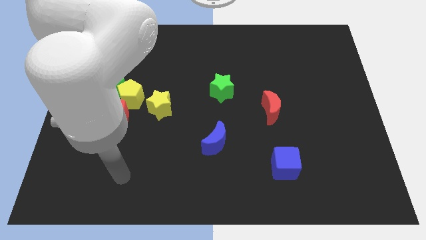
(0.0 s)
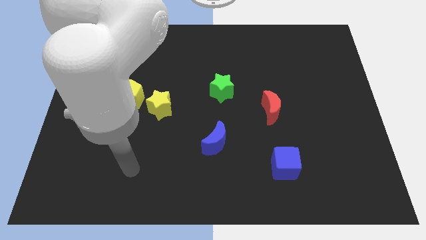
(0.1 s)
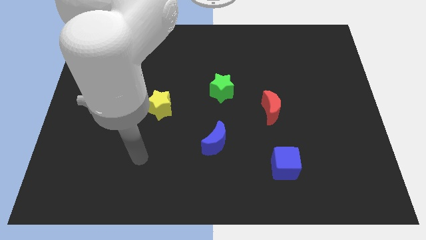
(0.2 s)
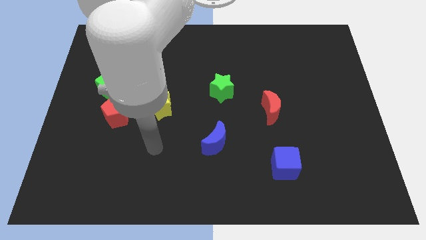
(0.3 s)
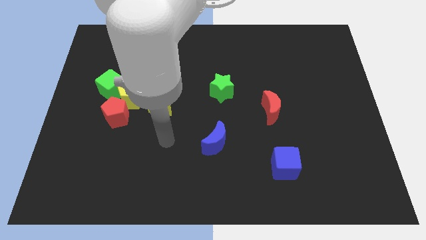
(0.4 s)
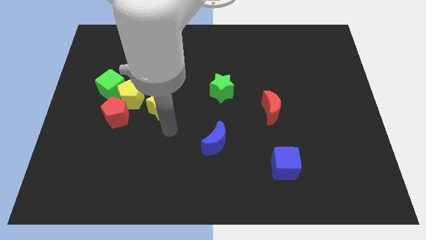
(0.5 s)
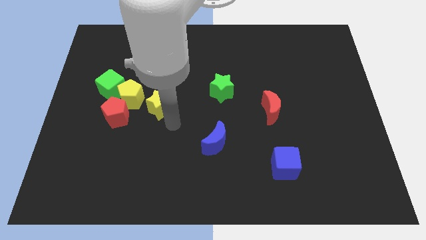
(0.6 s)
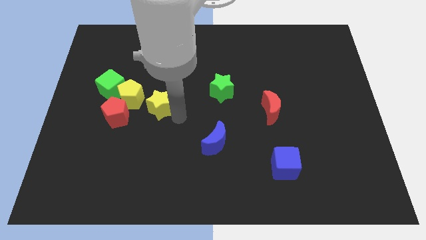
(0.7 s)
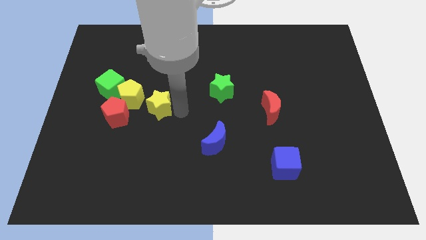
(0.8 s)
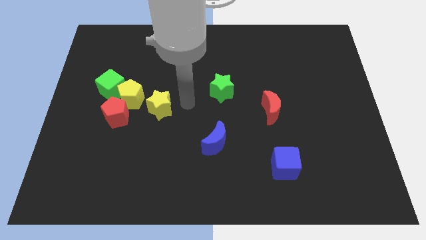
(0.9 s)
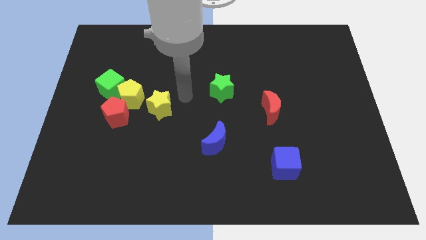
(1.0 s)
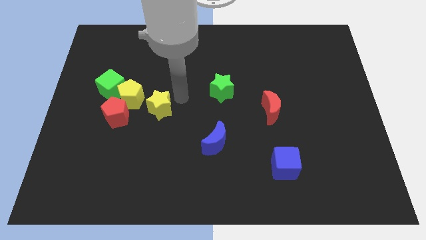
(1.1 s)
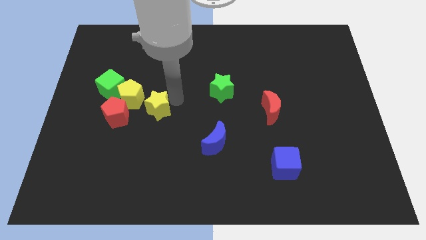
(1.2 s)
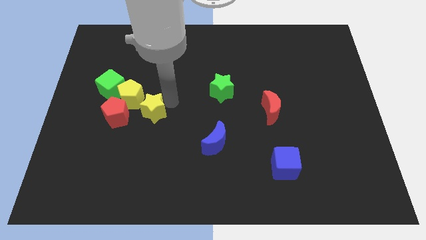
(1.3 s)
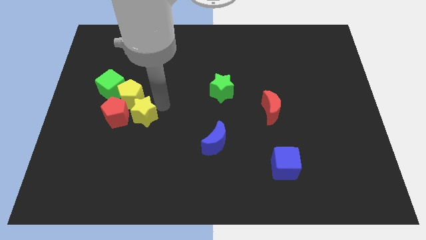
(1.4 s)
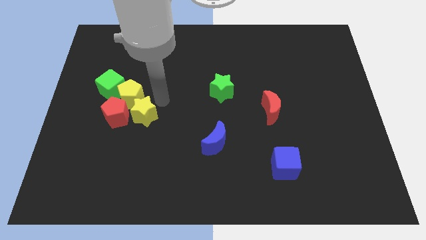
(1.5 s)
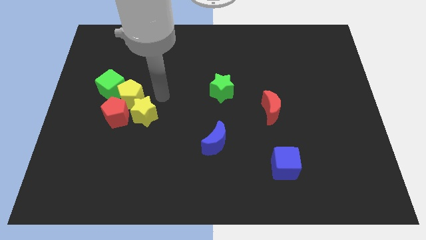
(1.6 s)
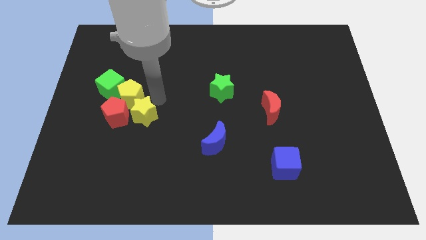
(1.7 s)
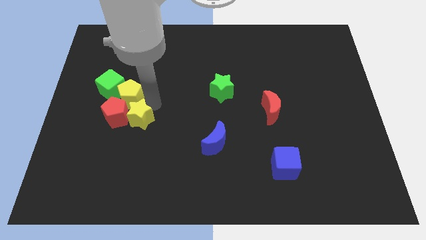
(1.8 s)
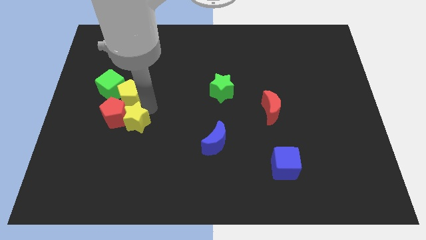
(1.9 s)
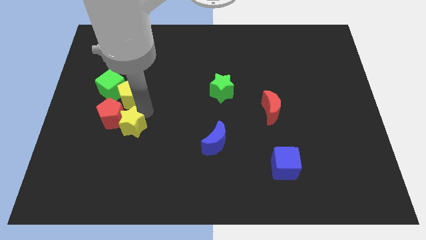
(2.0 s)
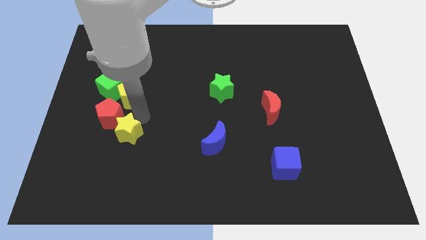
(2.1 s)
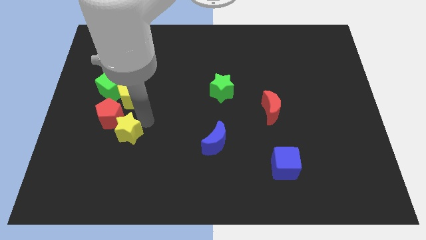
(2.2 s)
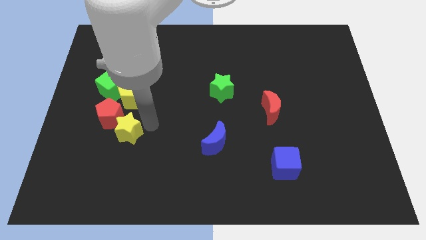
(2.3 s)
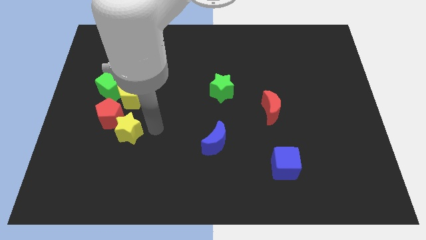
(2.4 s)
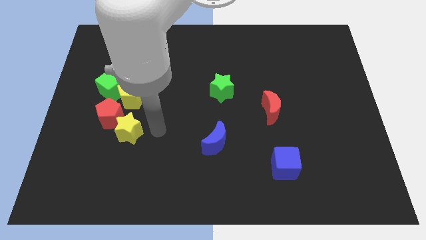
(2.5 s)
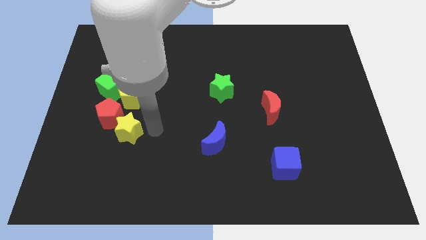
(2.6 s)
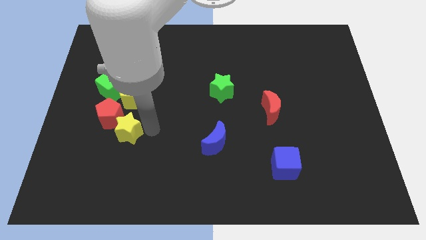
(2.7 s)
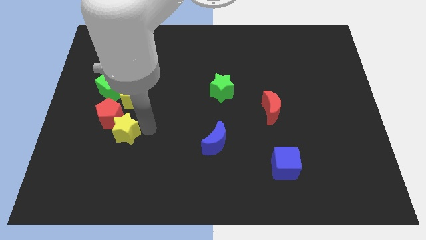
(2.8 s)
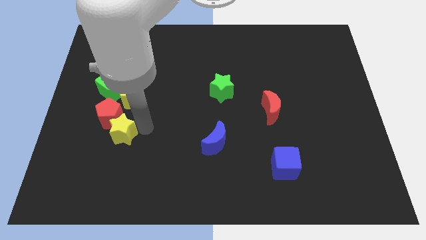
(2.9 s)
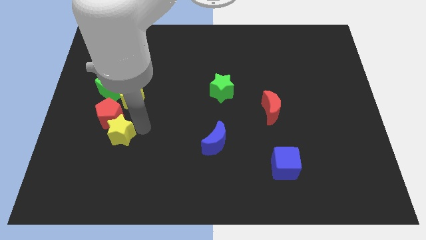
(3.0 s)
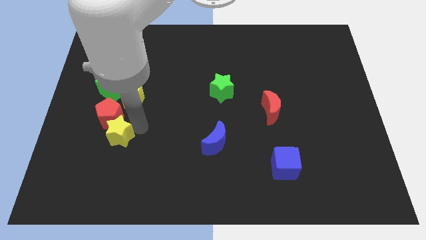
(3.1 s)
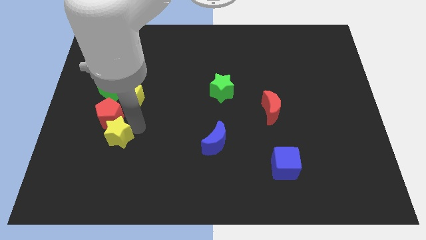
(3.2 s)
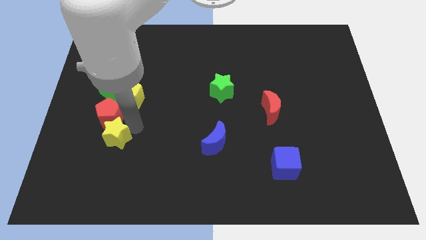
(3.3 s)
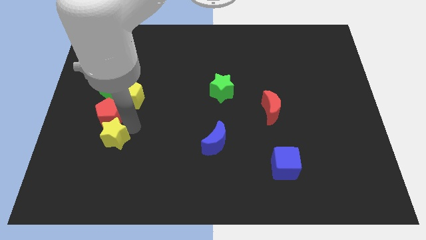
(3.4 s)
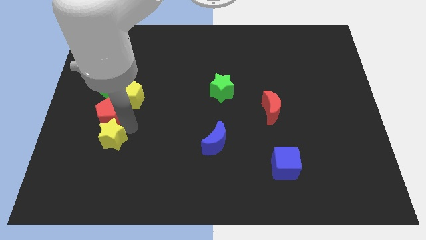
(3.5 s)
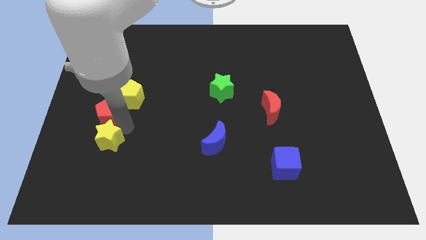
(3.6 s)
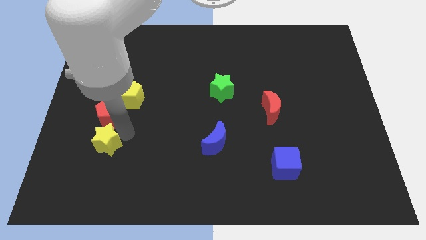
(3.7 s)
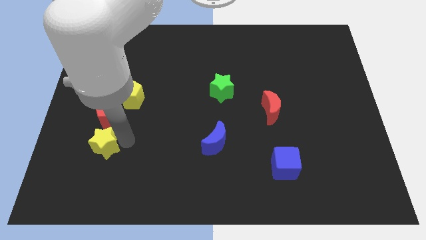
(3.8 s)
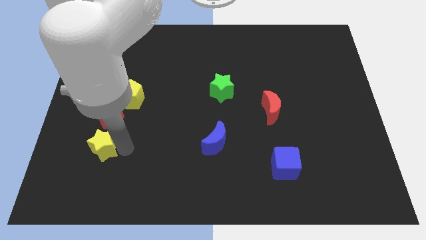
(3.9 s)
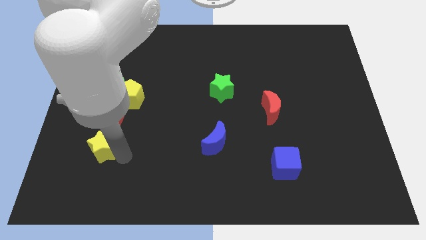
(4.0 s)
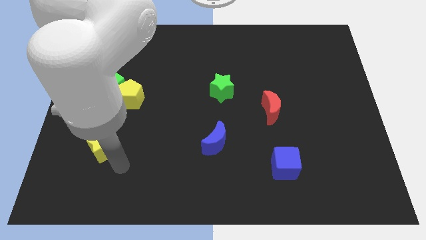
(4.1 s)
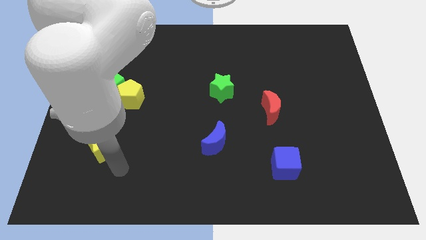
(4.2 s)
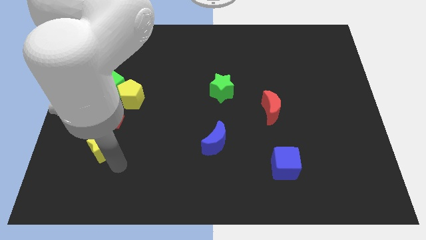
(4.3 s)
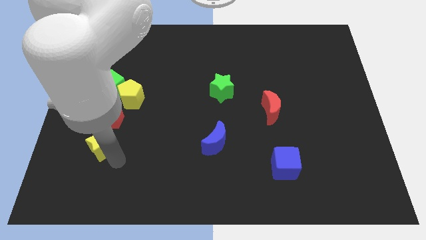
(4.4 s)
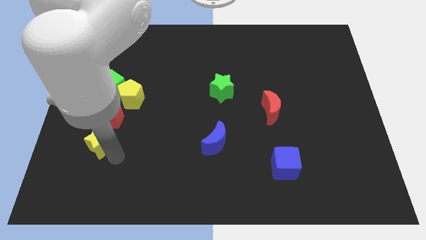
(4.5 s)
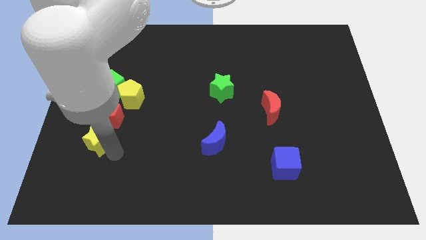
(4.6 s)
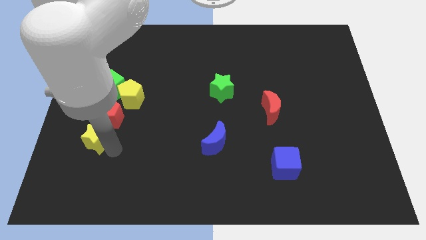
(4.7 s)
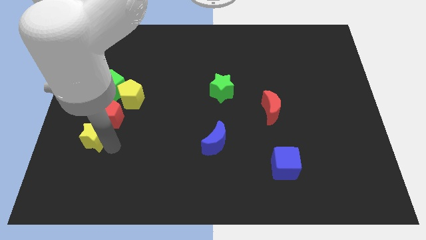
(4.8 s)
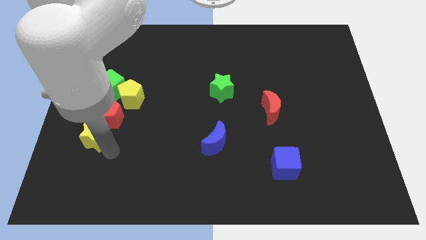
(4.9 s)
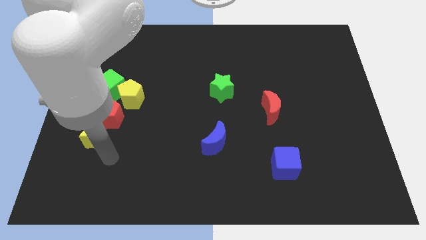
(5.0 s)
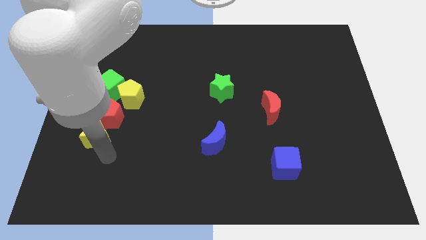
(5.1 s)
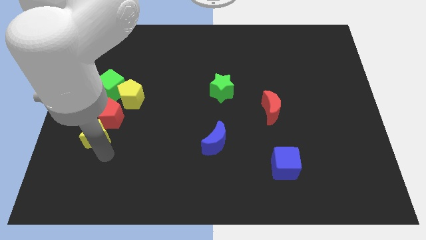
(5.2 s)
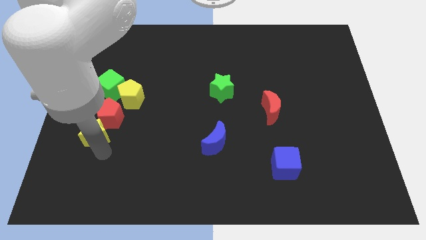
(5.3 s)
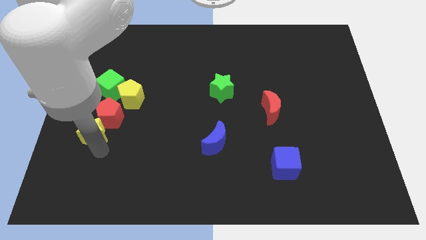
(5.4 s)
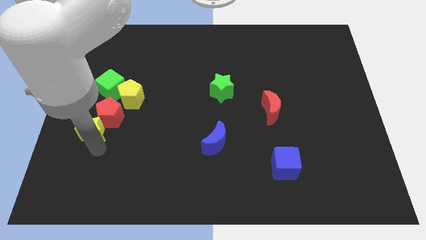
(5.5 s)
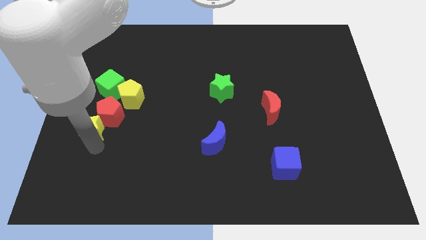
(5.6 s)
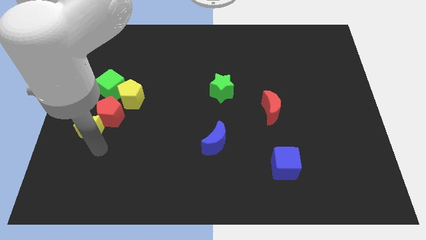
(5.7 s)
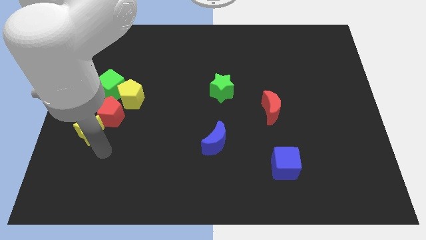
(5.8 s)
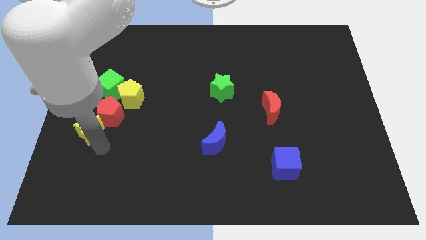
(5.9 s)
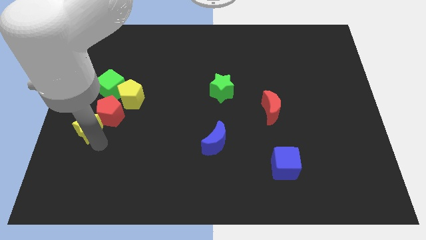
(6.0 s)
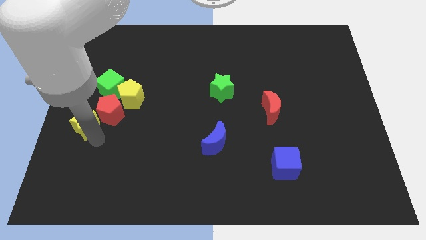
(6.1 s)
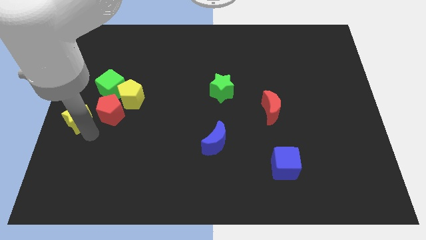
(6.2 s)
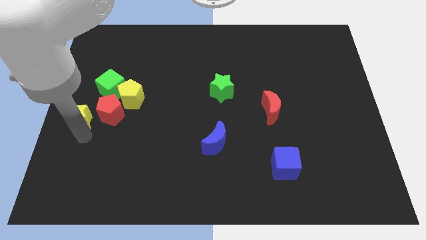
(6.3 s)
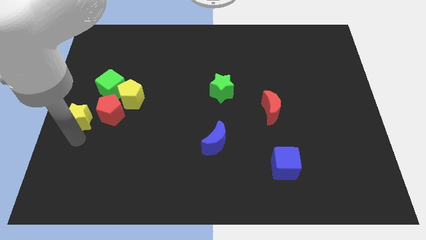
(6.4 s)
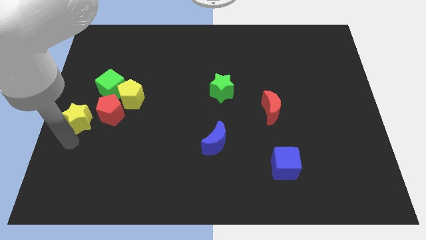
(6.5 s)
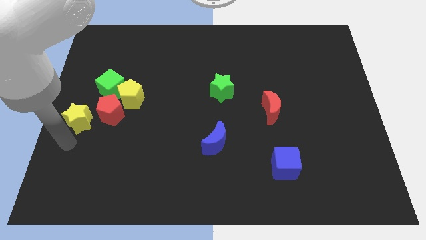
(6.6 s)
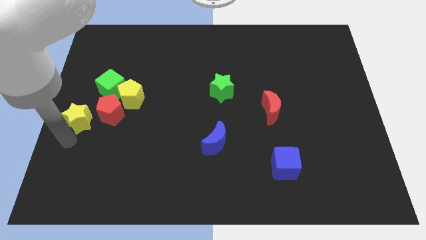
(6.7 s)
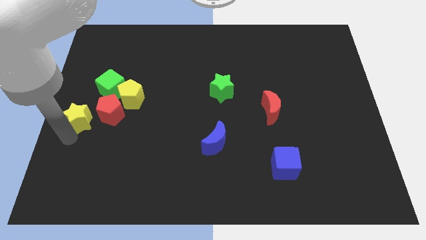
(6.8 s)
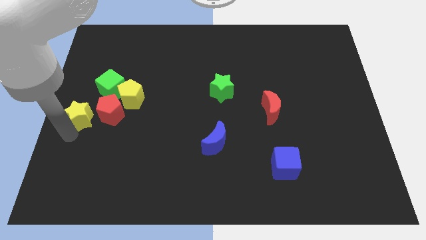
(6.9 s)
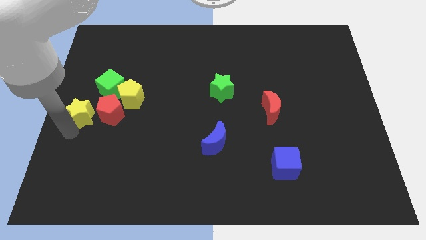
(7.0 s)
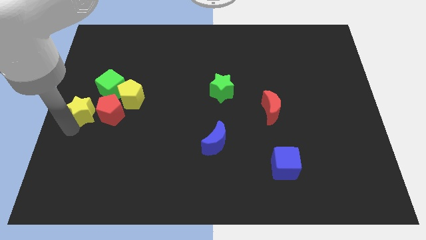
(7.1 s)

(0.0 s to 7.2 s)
put the yellow star diagonally up and to the left of the red pentagon
